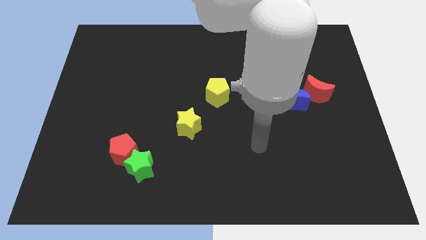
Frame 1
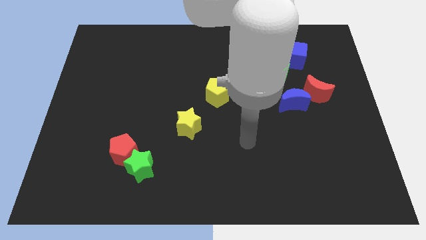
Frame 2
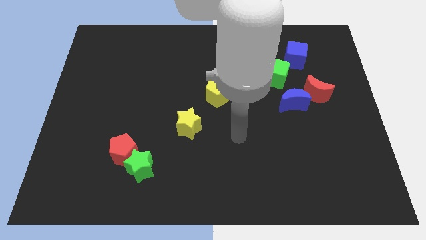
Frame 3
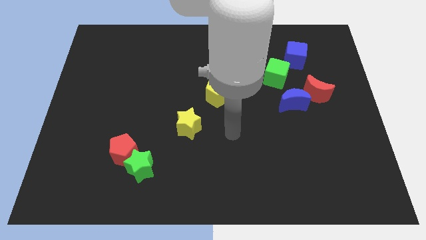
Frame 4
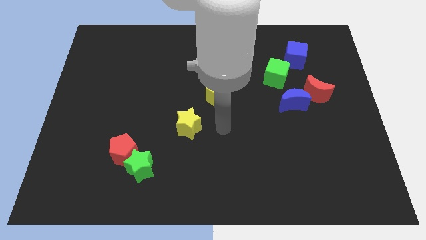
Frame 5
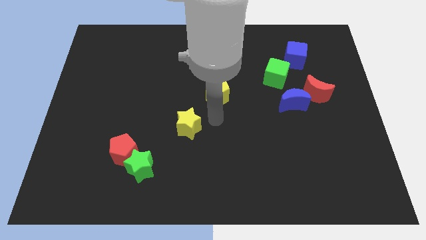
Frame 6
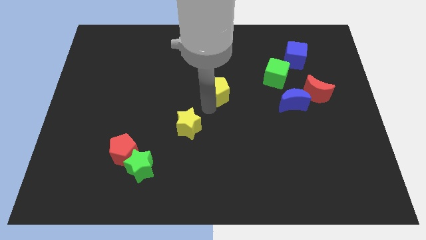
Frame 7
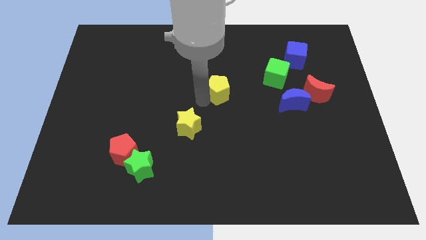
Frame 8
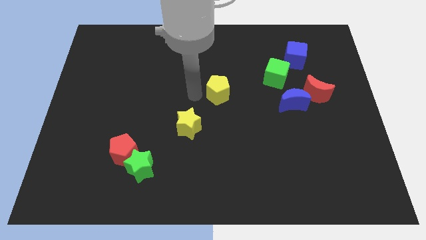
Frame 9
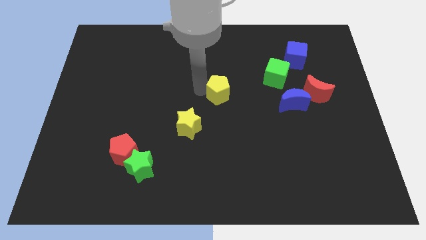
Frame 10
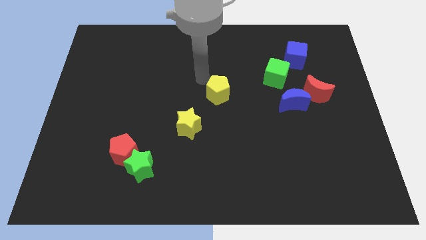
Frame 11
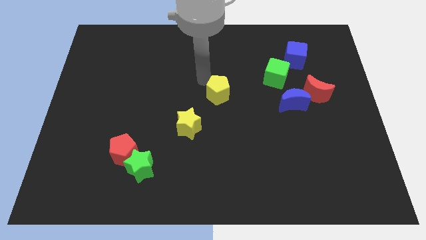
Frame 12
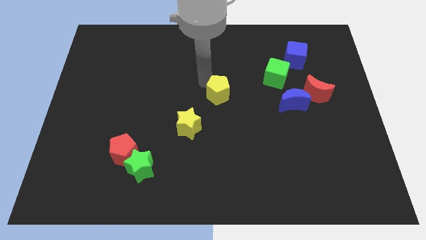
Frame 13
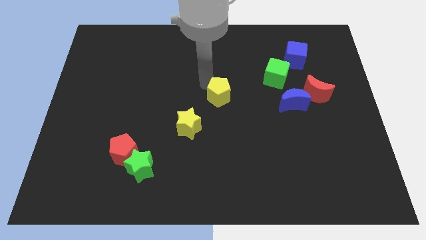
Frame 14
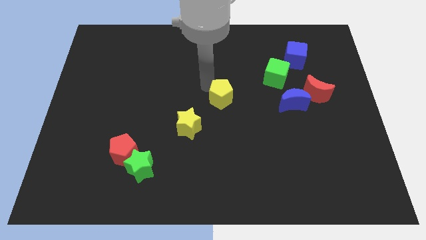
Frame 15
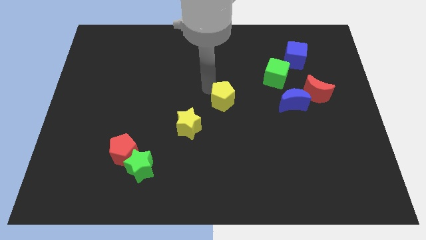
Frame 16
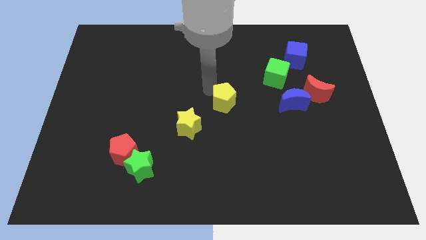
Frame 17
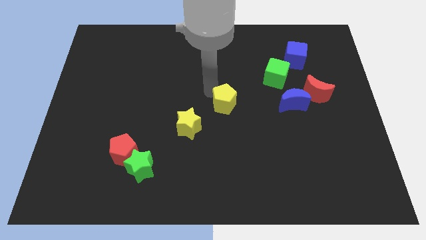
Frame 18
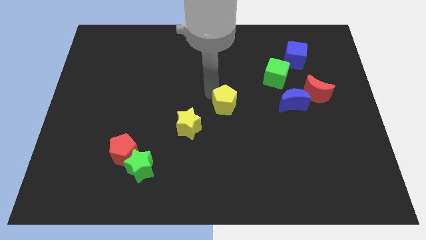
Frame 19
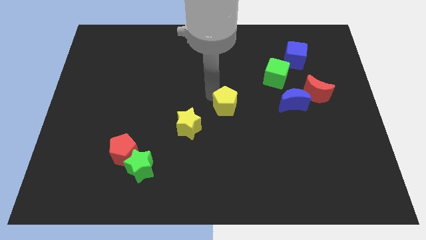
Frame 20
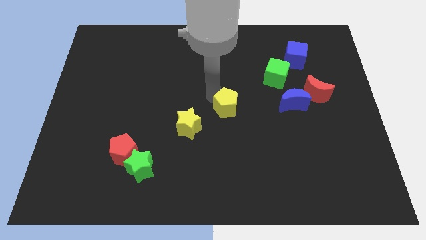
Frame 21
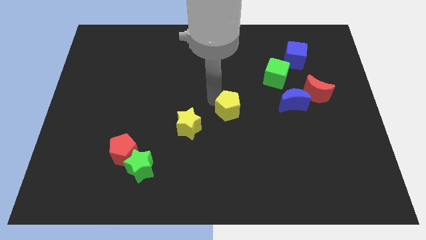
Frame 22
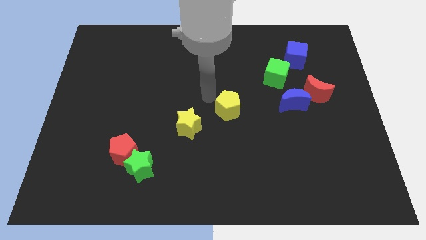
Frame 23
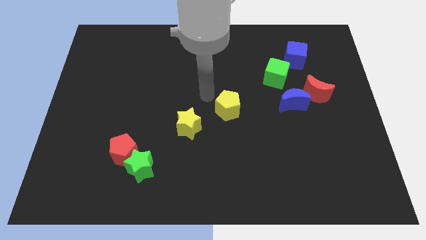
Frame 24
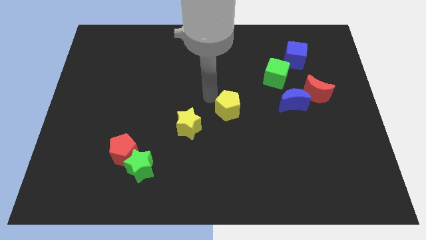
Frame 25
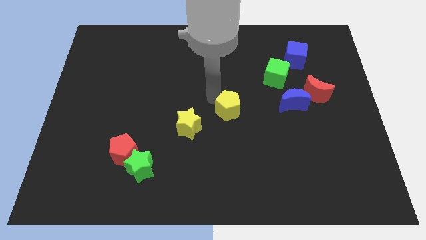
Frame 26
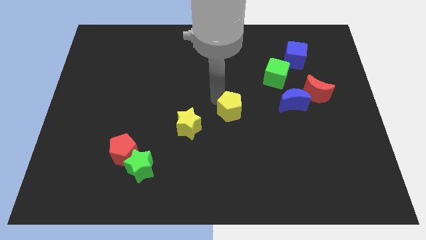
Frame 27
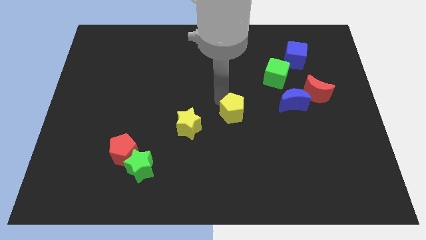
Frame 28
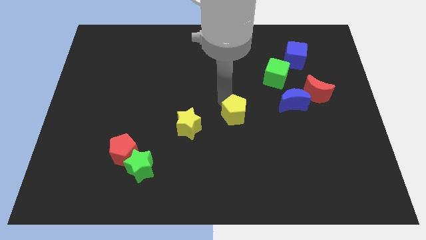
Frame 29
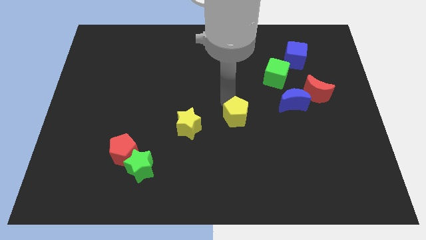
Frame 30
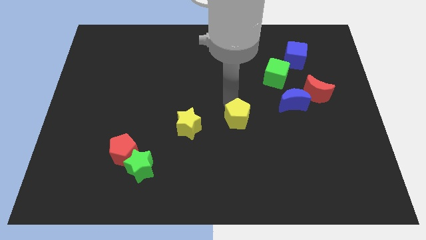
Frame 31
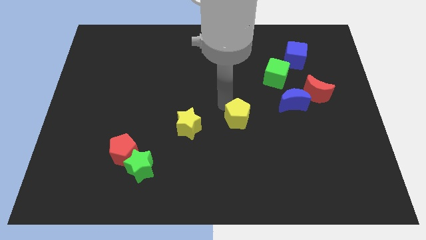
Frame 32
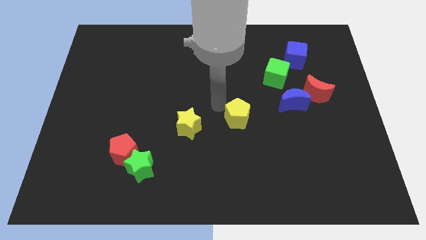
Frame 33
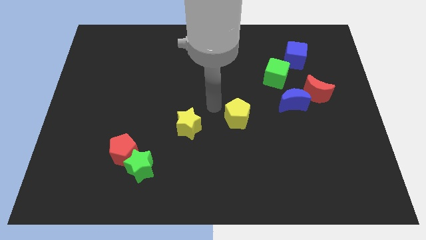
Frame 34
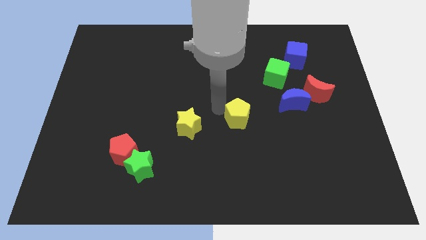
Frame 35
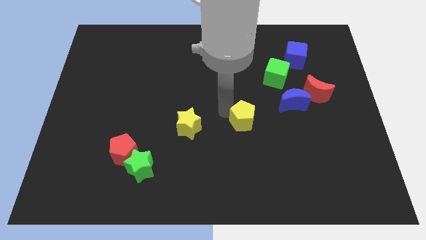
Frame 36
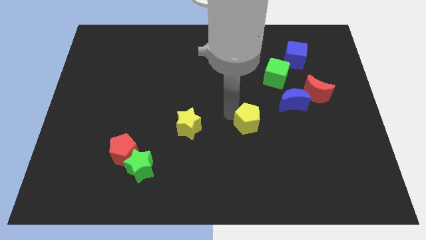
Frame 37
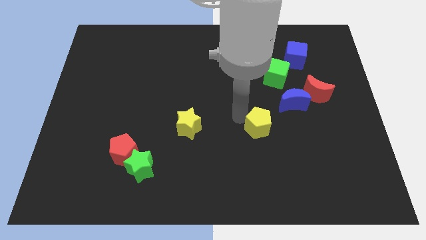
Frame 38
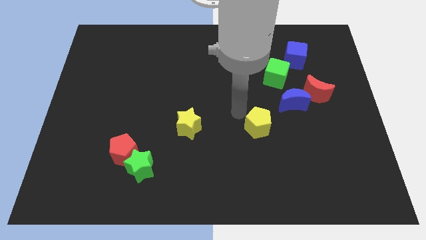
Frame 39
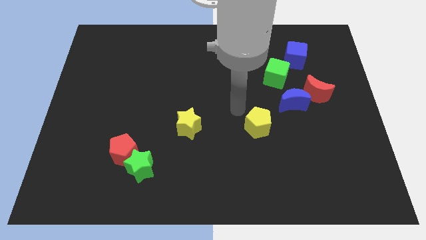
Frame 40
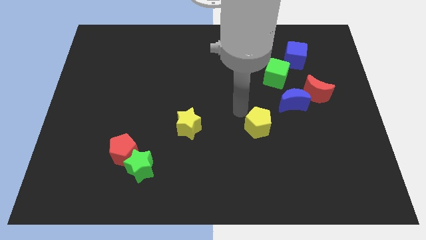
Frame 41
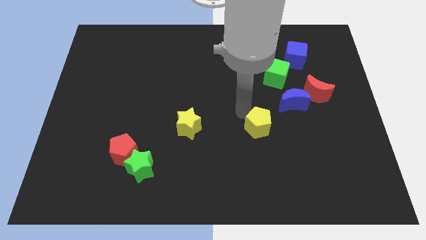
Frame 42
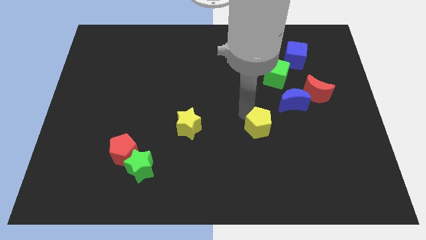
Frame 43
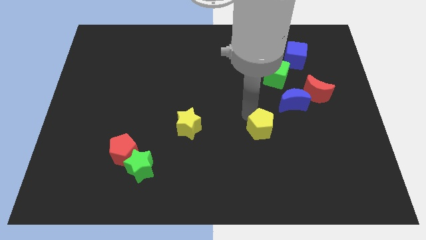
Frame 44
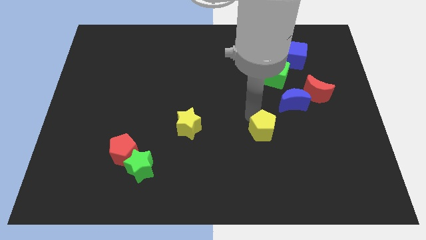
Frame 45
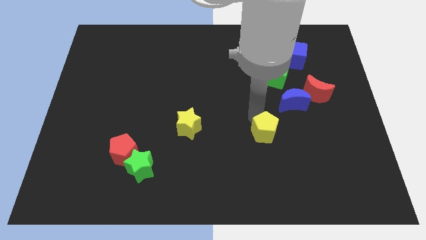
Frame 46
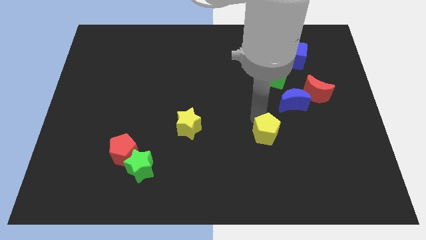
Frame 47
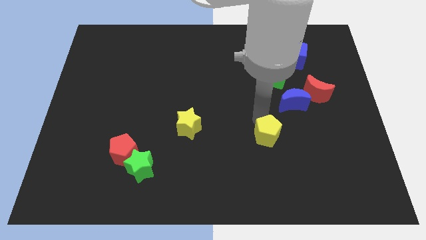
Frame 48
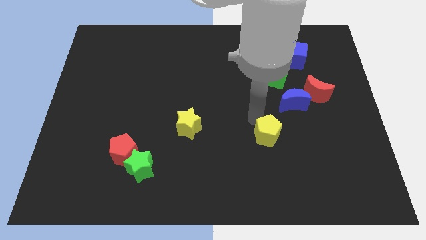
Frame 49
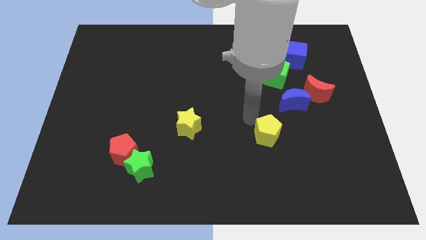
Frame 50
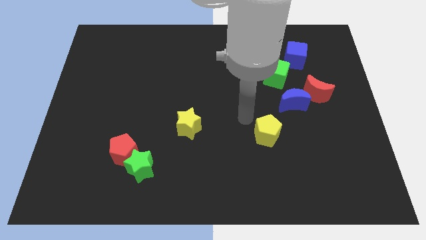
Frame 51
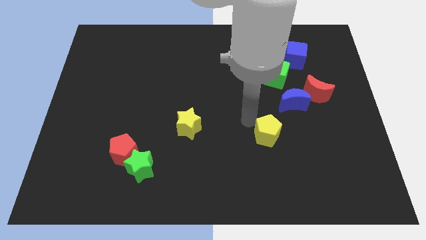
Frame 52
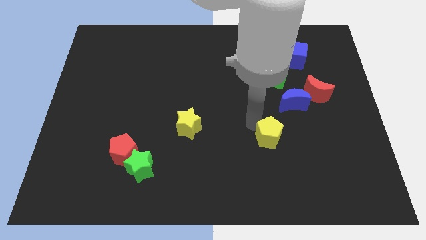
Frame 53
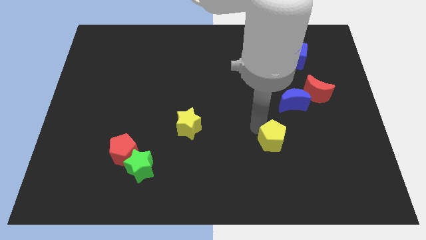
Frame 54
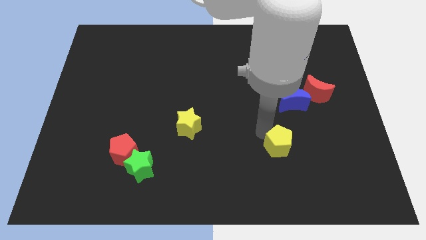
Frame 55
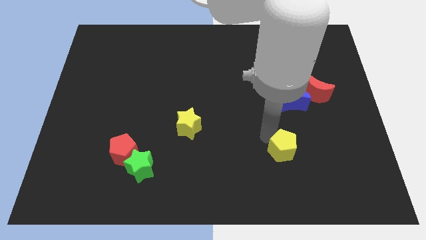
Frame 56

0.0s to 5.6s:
push the yellow pentagon diagonally down and to the right

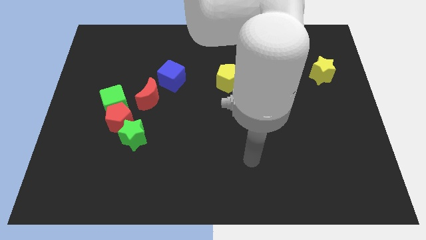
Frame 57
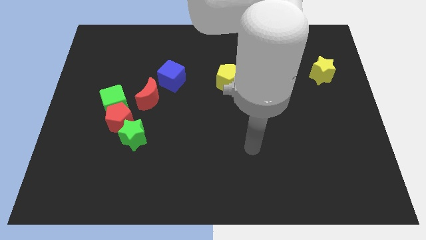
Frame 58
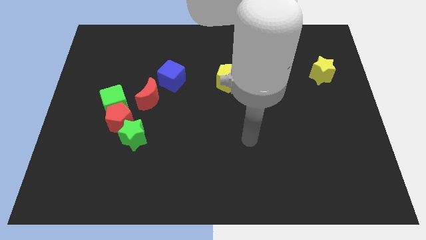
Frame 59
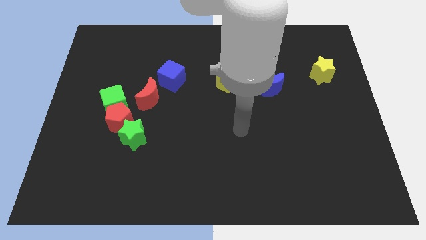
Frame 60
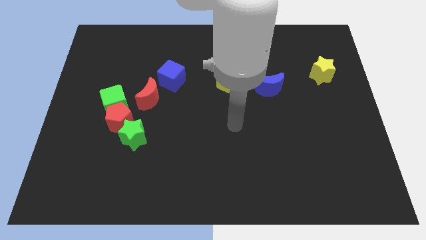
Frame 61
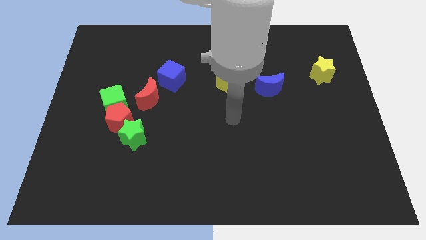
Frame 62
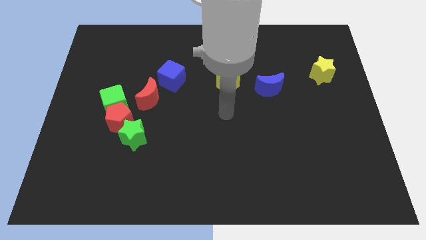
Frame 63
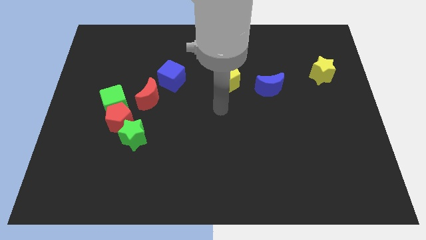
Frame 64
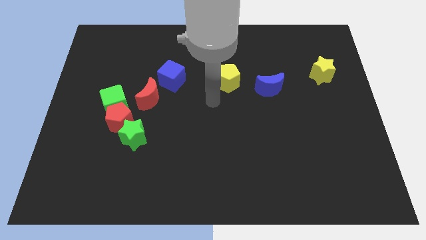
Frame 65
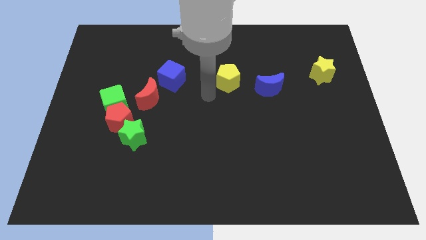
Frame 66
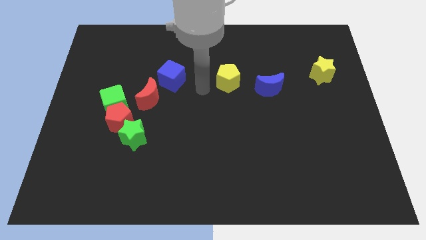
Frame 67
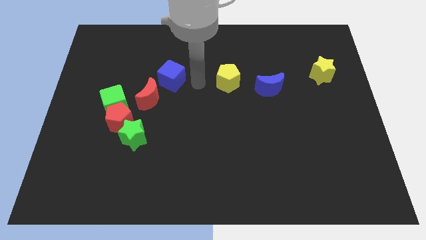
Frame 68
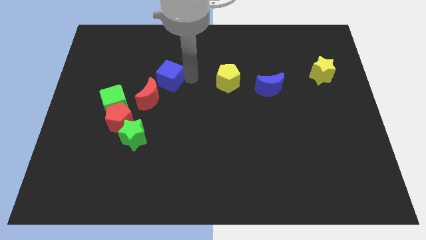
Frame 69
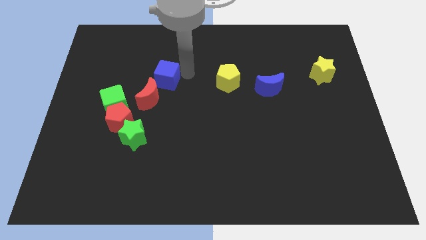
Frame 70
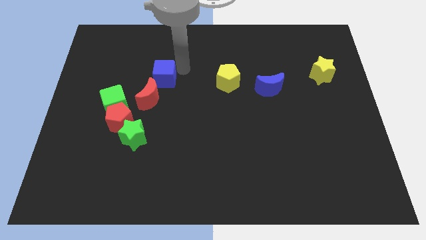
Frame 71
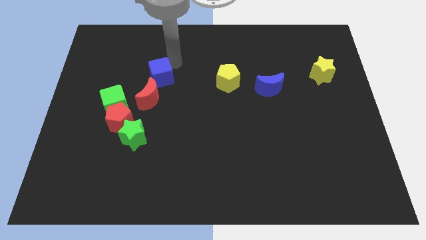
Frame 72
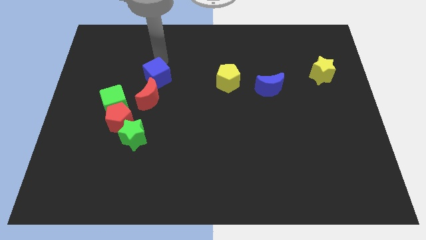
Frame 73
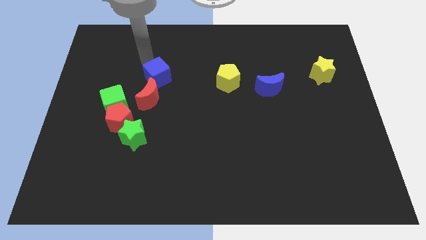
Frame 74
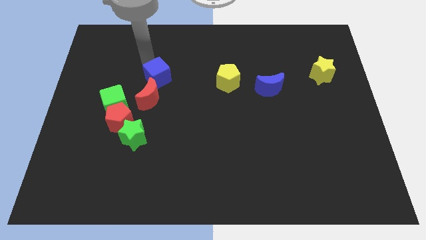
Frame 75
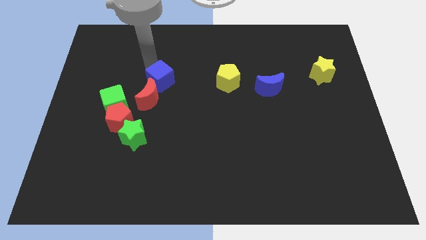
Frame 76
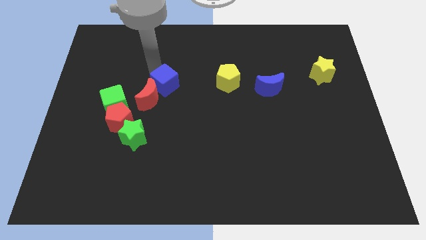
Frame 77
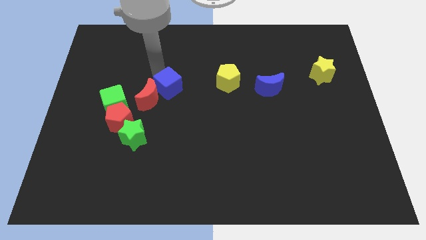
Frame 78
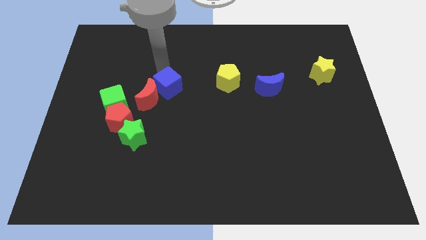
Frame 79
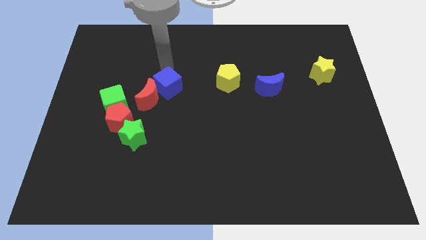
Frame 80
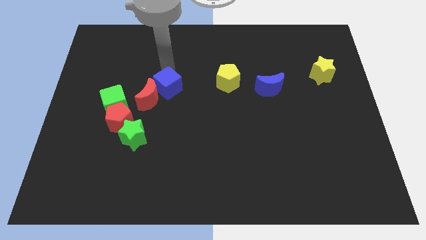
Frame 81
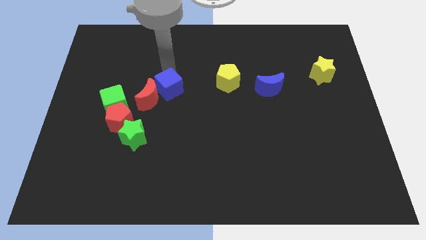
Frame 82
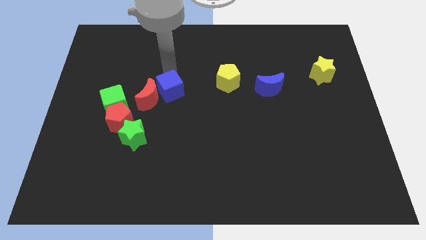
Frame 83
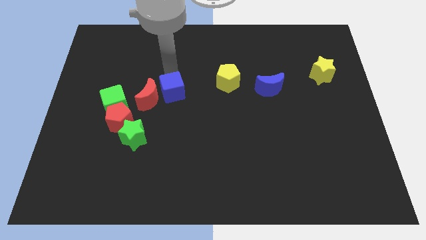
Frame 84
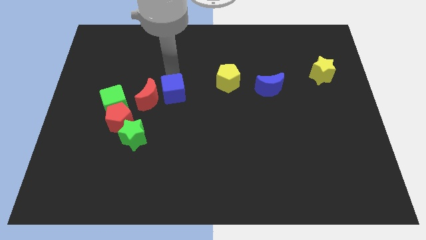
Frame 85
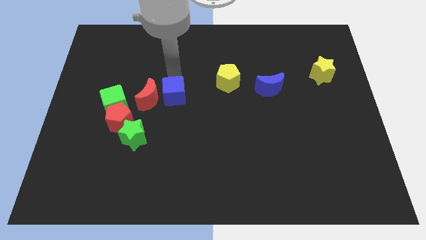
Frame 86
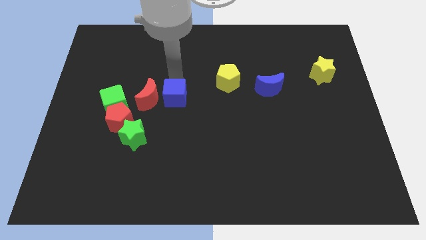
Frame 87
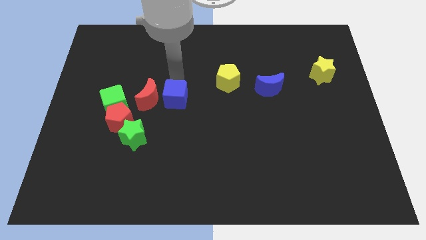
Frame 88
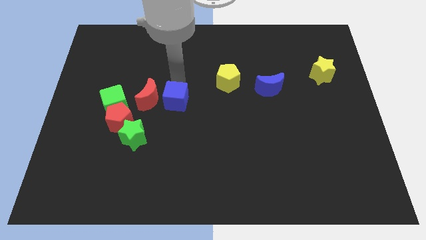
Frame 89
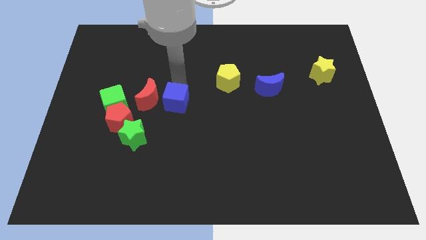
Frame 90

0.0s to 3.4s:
move the blue cube slightly down
